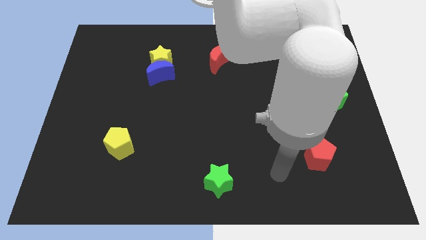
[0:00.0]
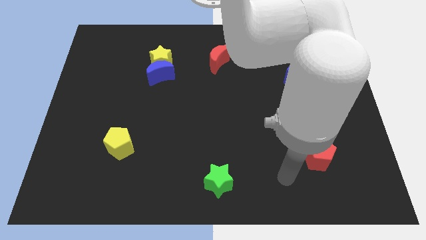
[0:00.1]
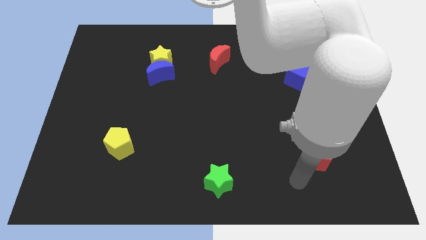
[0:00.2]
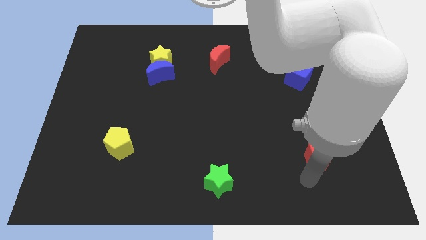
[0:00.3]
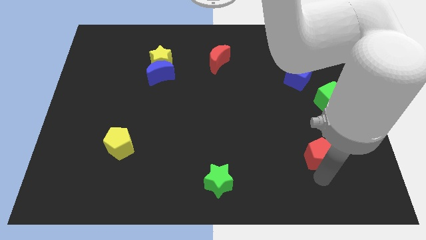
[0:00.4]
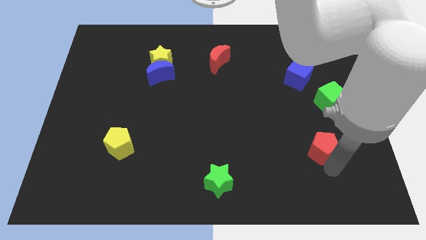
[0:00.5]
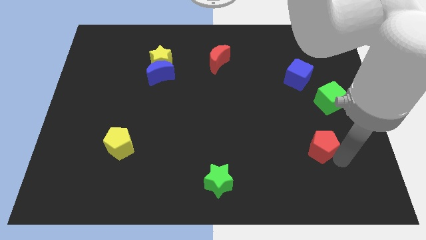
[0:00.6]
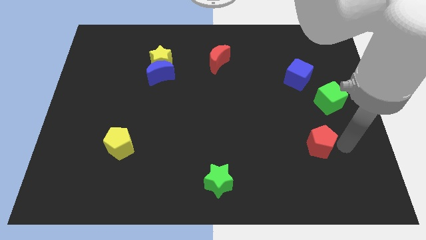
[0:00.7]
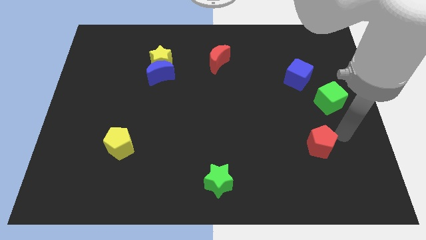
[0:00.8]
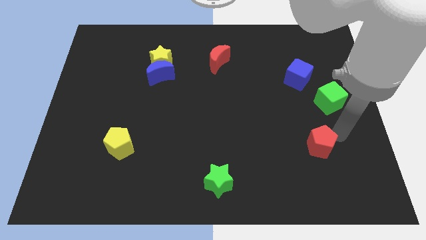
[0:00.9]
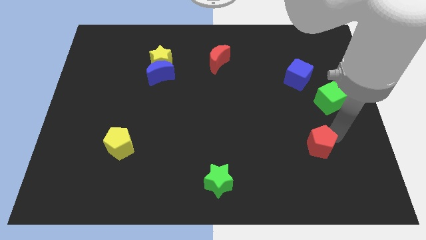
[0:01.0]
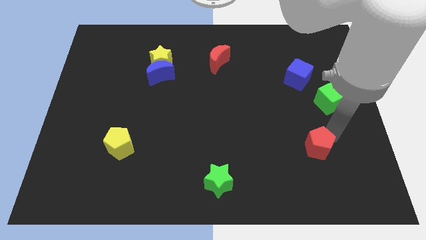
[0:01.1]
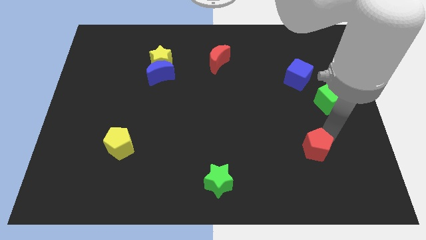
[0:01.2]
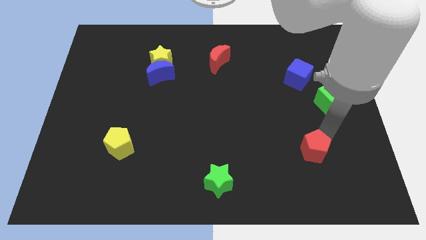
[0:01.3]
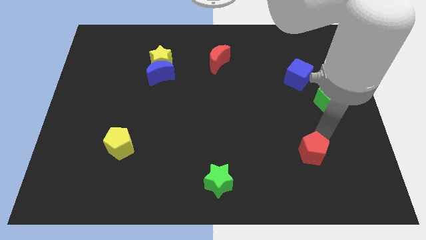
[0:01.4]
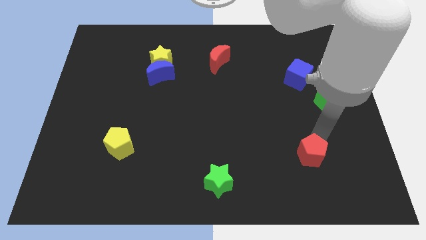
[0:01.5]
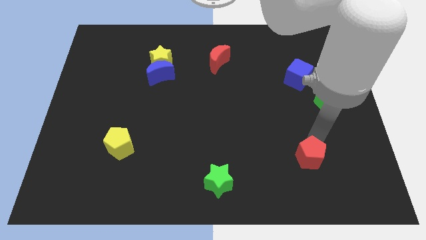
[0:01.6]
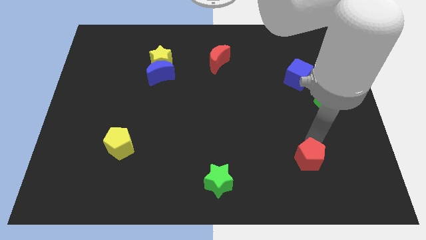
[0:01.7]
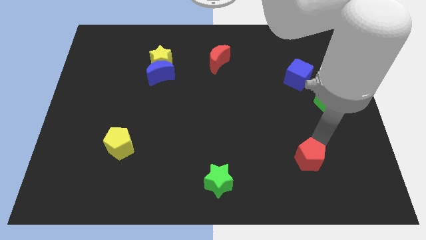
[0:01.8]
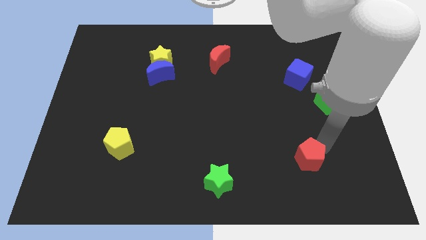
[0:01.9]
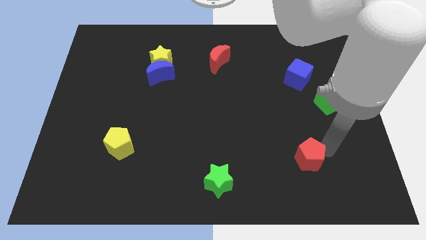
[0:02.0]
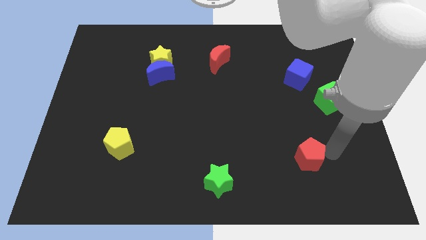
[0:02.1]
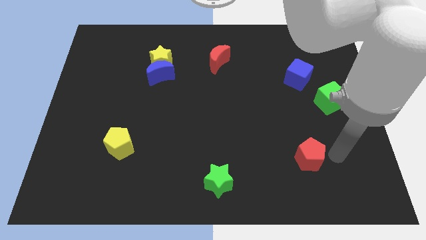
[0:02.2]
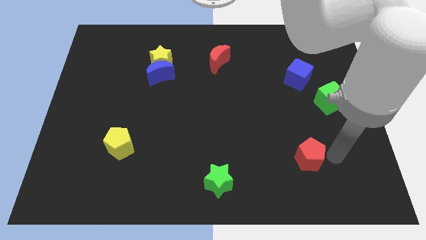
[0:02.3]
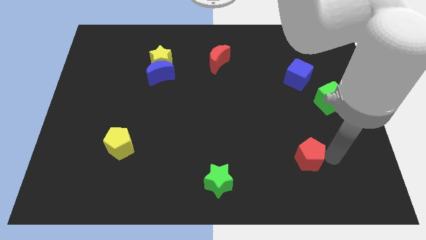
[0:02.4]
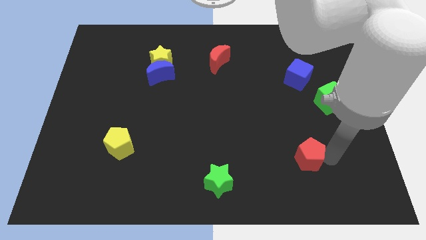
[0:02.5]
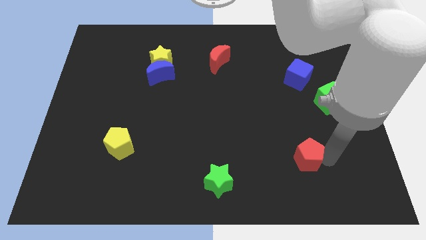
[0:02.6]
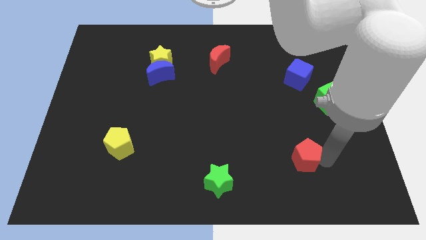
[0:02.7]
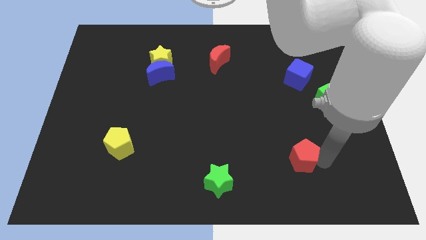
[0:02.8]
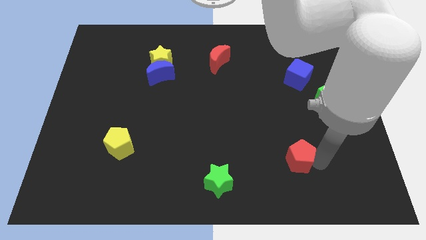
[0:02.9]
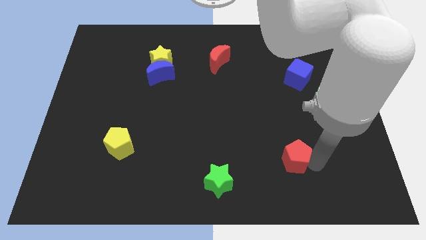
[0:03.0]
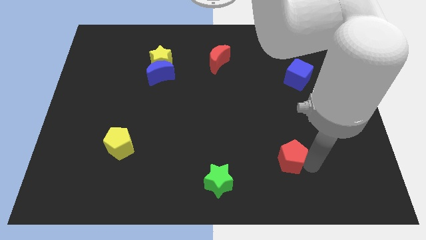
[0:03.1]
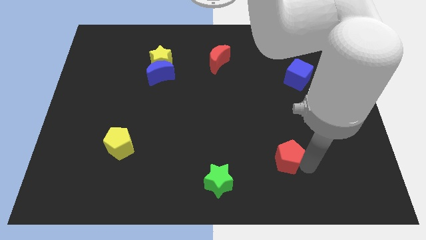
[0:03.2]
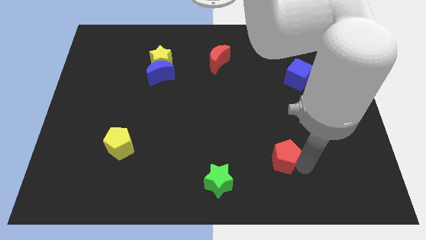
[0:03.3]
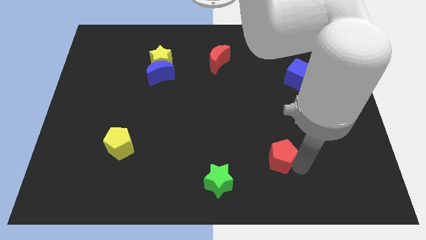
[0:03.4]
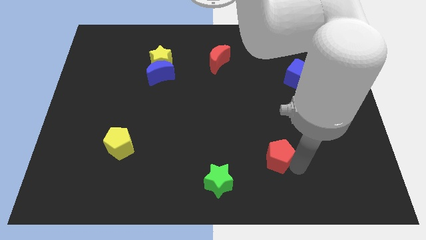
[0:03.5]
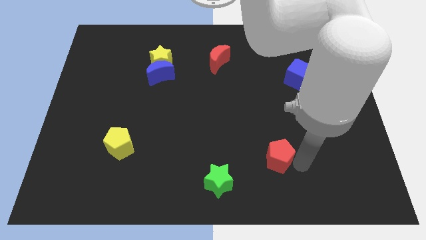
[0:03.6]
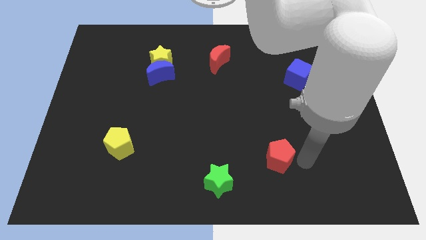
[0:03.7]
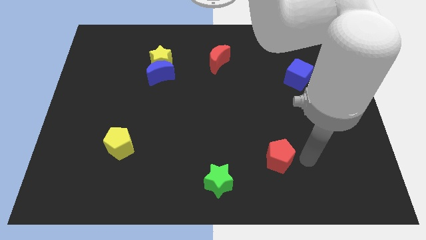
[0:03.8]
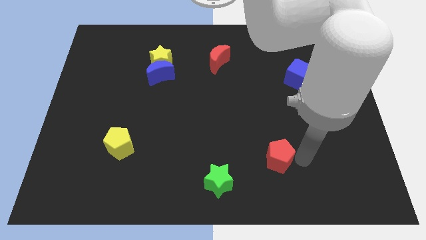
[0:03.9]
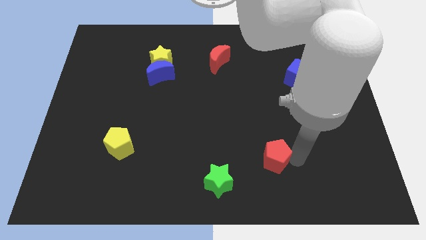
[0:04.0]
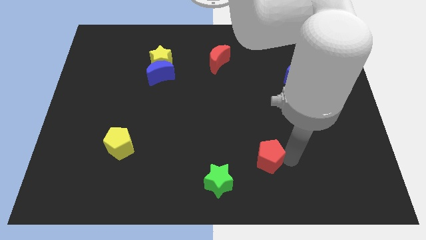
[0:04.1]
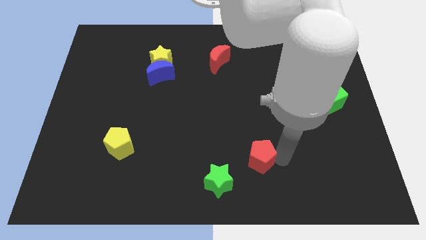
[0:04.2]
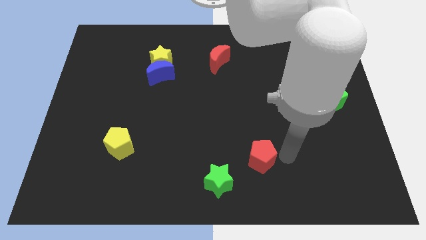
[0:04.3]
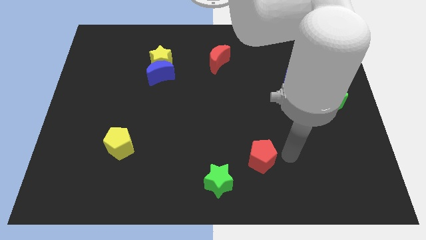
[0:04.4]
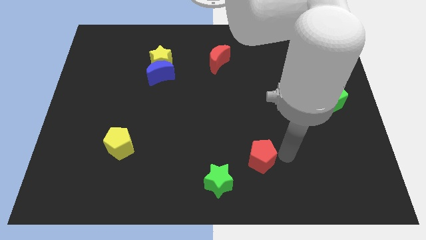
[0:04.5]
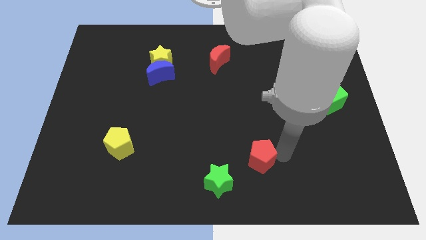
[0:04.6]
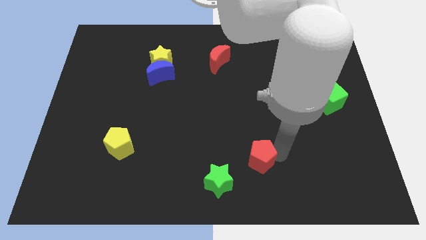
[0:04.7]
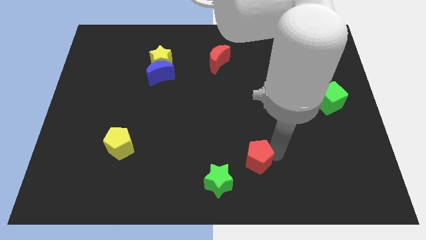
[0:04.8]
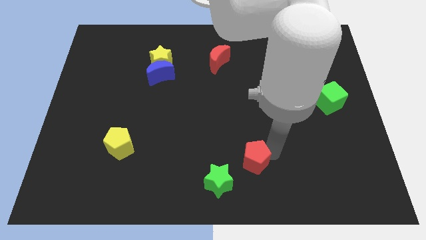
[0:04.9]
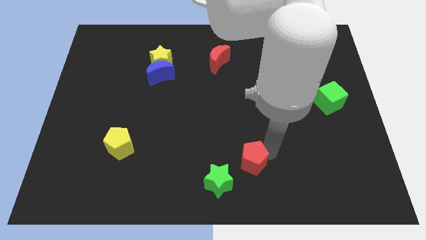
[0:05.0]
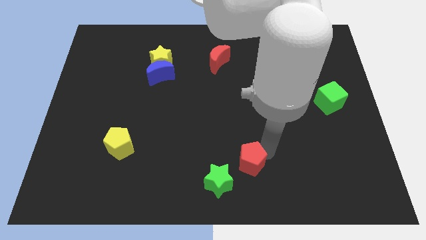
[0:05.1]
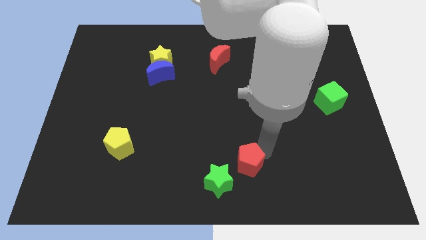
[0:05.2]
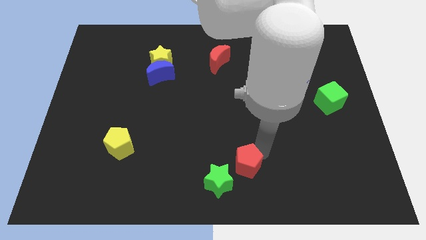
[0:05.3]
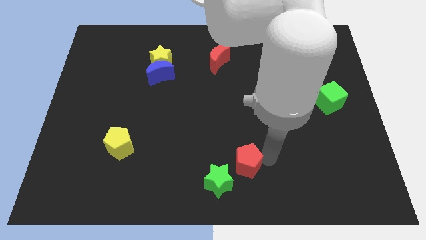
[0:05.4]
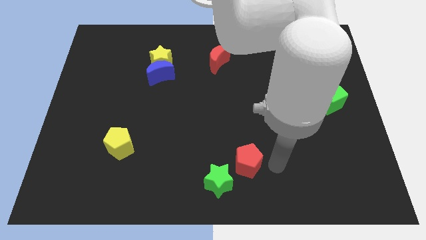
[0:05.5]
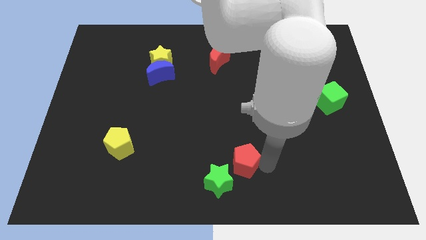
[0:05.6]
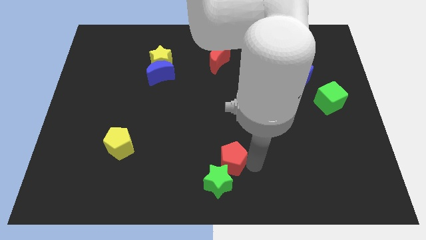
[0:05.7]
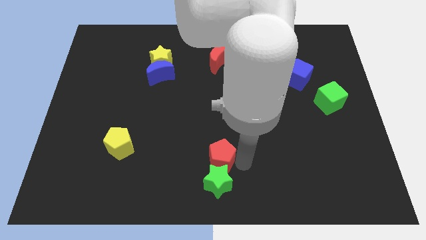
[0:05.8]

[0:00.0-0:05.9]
push the red pentagon left

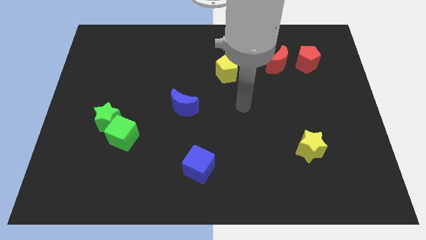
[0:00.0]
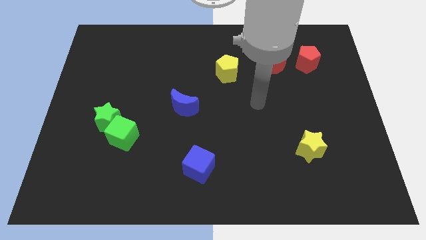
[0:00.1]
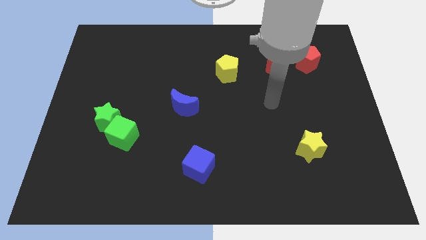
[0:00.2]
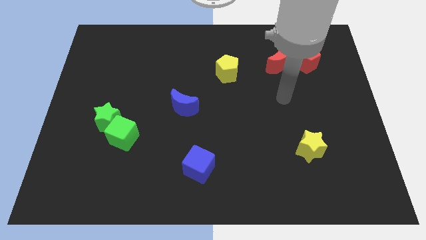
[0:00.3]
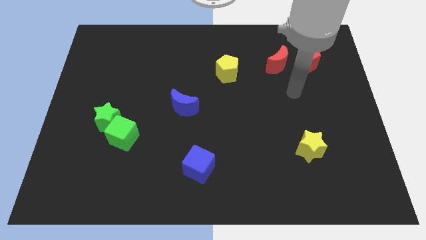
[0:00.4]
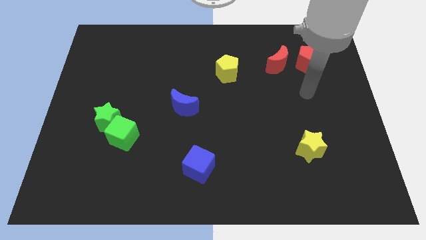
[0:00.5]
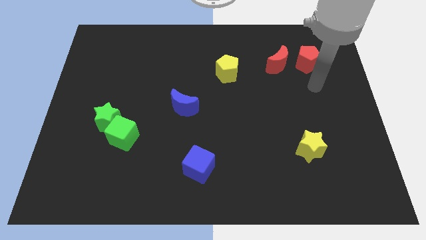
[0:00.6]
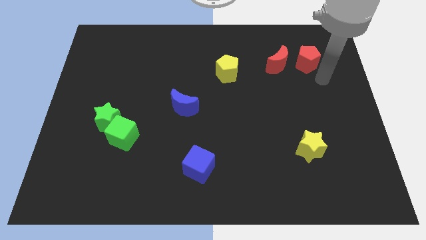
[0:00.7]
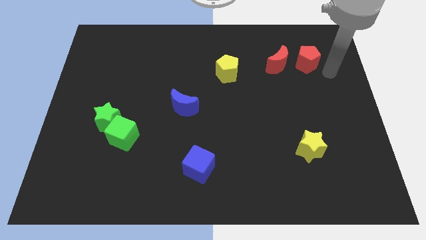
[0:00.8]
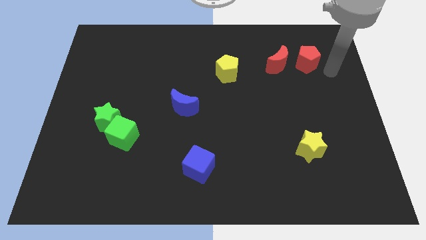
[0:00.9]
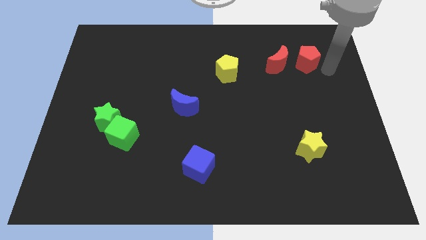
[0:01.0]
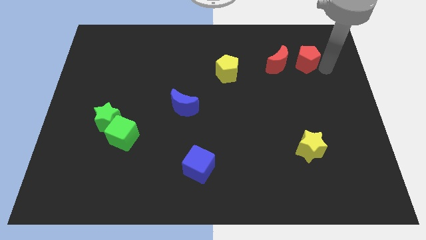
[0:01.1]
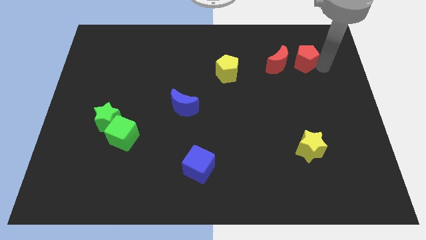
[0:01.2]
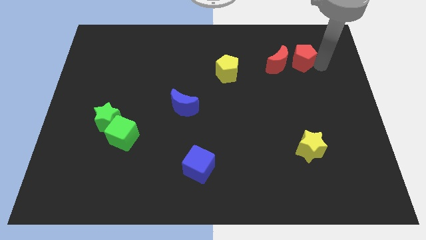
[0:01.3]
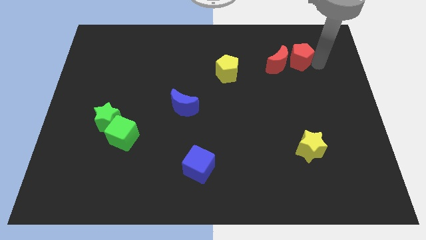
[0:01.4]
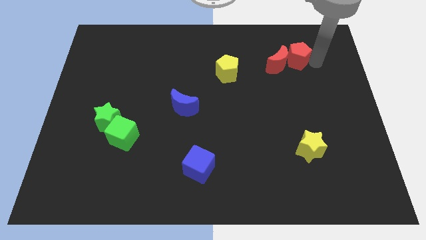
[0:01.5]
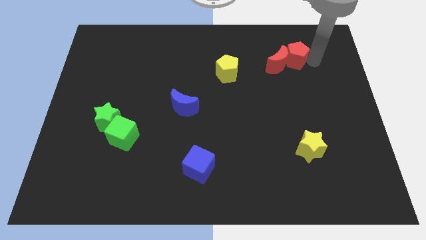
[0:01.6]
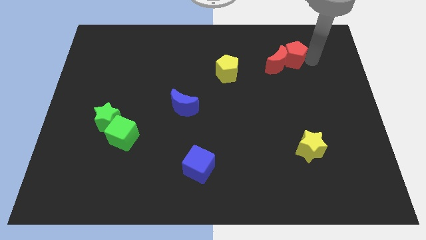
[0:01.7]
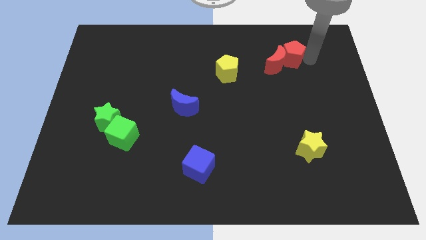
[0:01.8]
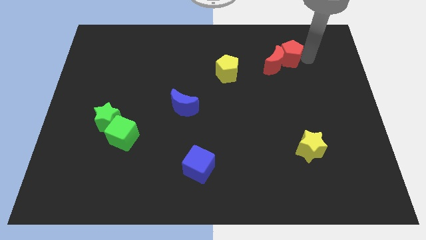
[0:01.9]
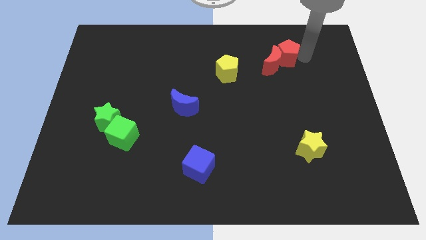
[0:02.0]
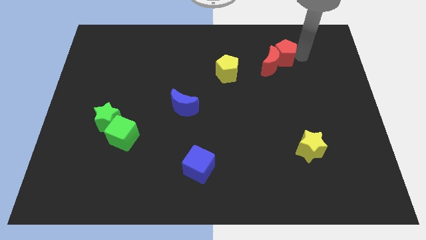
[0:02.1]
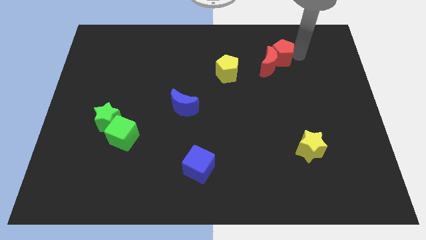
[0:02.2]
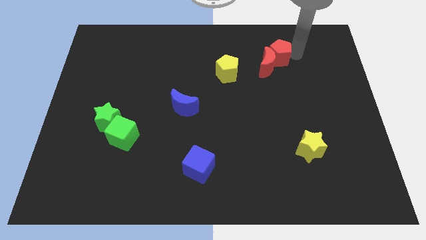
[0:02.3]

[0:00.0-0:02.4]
push the red pentagon to the left a little bit
